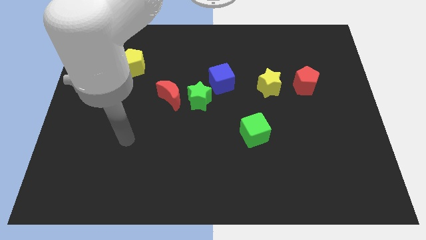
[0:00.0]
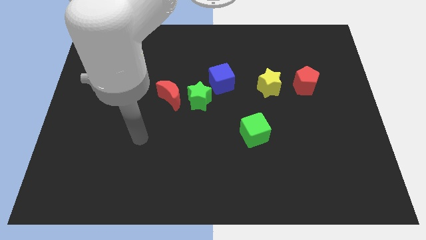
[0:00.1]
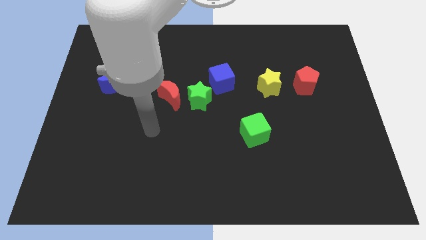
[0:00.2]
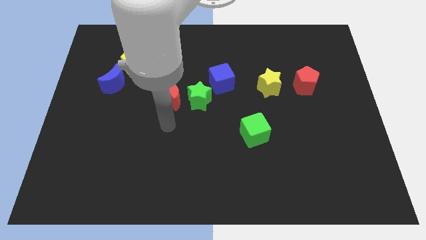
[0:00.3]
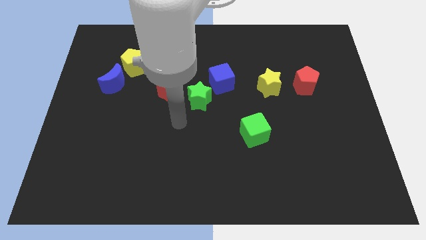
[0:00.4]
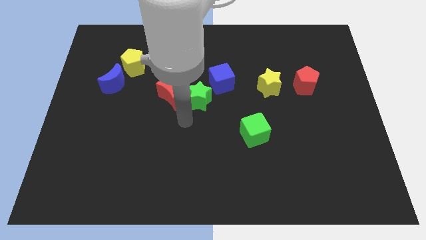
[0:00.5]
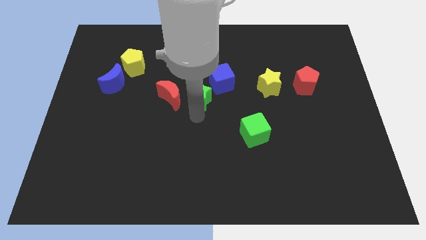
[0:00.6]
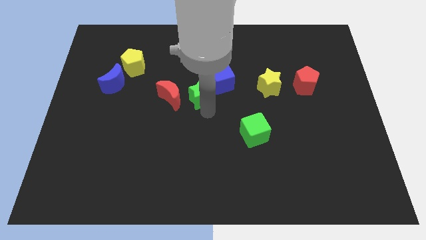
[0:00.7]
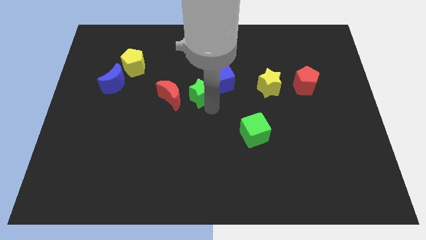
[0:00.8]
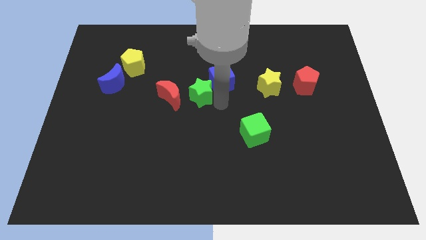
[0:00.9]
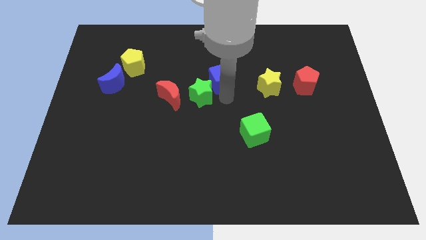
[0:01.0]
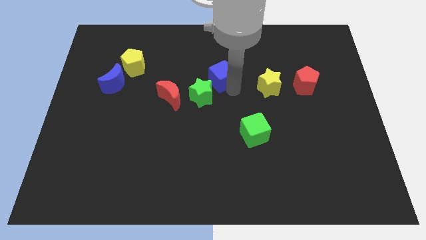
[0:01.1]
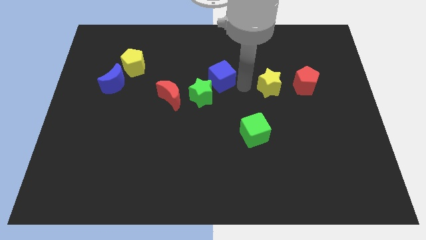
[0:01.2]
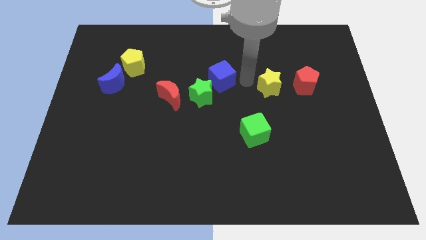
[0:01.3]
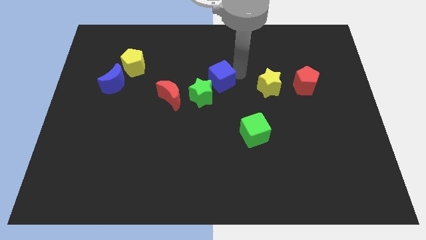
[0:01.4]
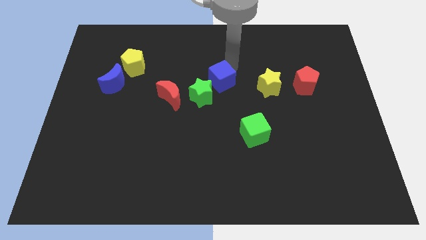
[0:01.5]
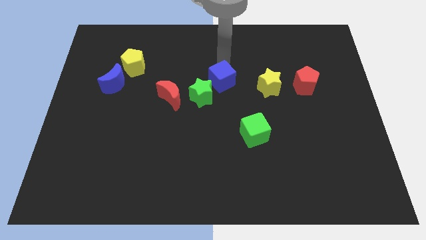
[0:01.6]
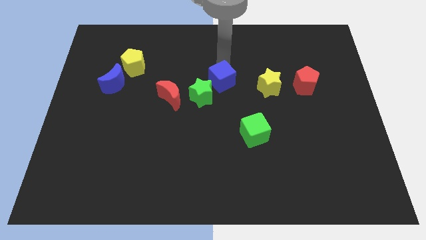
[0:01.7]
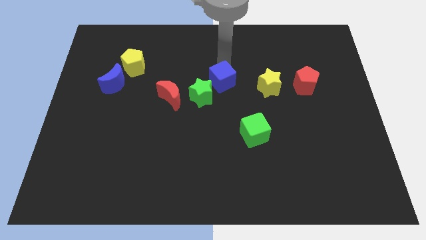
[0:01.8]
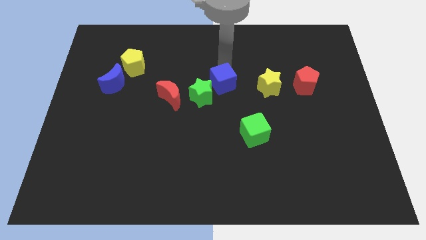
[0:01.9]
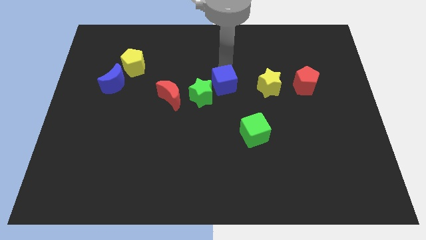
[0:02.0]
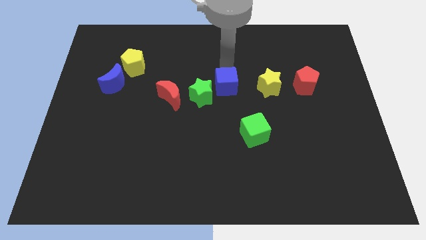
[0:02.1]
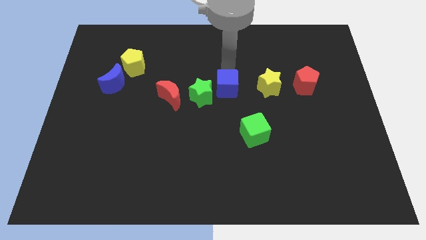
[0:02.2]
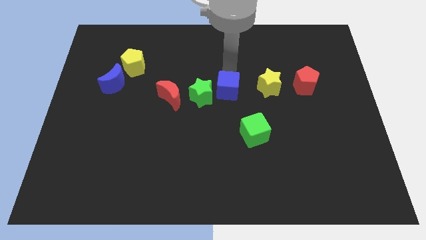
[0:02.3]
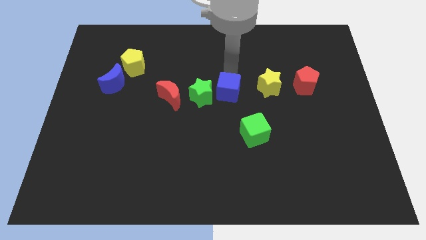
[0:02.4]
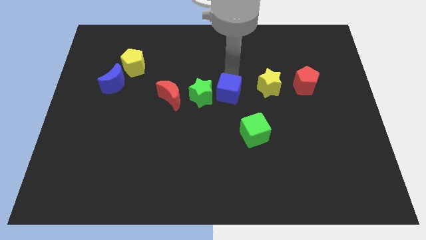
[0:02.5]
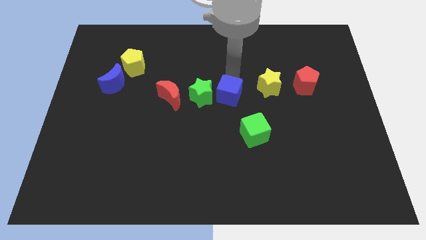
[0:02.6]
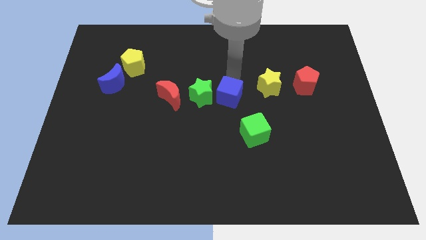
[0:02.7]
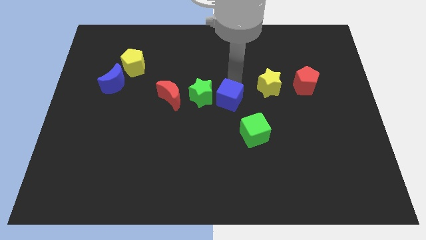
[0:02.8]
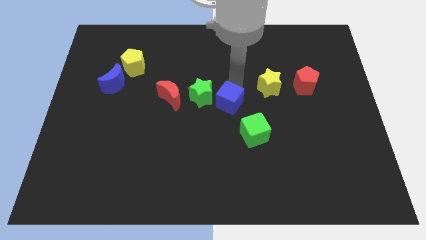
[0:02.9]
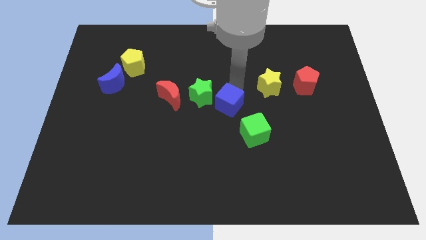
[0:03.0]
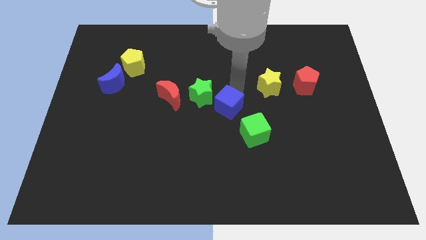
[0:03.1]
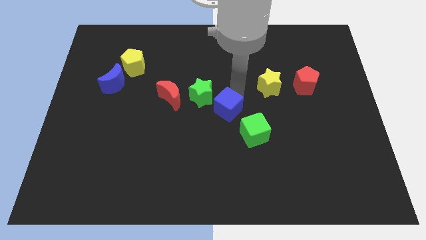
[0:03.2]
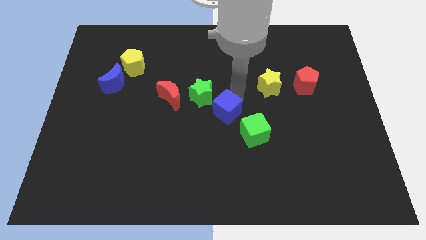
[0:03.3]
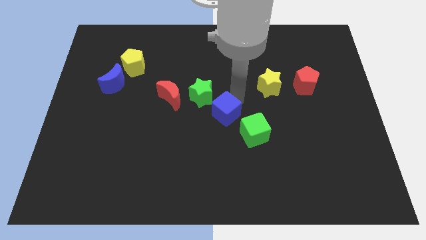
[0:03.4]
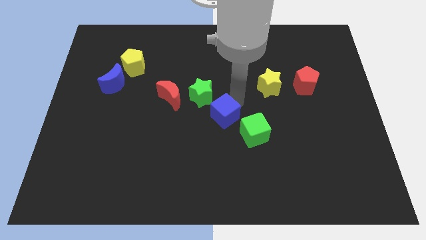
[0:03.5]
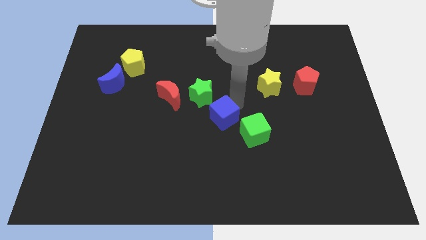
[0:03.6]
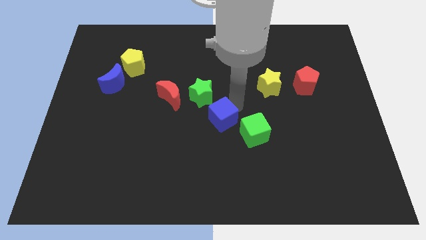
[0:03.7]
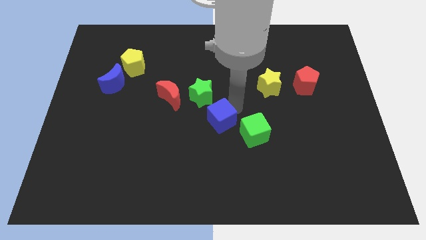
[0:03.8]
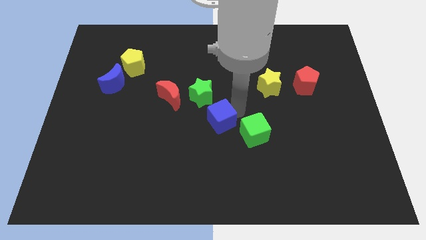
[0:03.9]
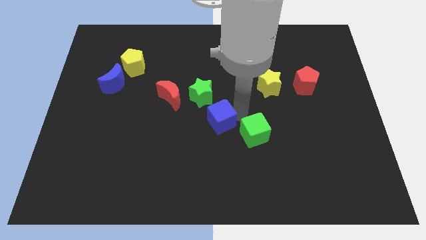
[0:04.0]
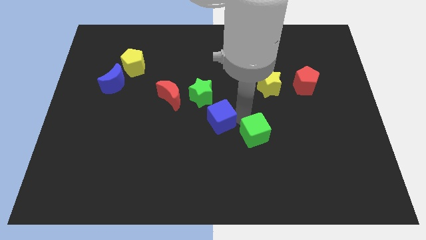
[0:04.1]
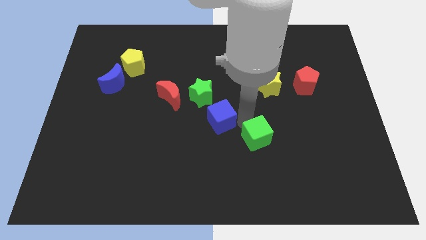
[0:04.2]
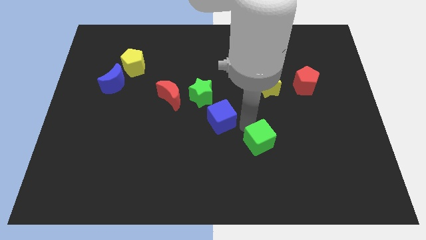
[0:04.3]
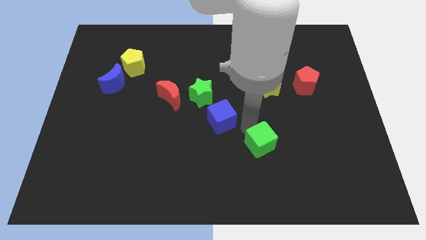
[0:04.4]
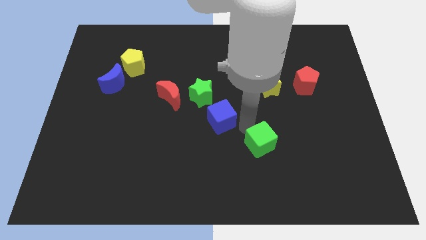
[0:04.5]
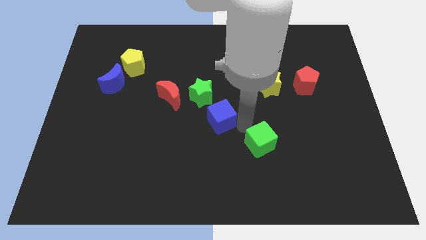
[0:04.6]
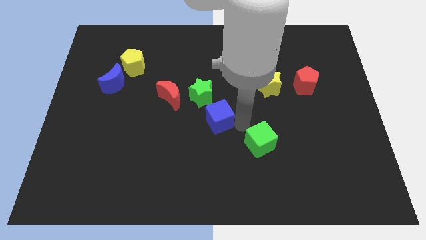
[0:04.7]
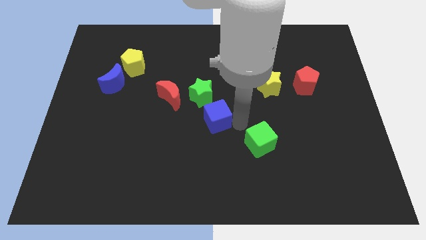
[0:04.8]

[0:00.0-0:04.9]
slightly push the blue cube downwards and to the left diagonally

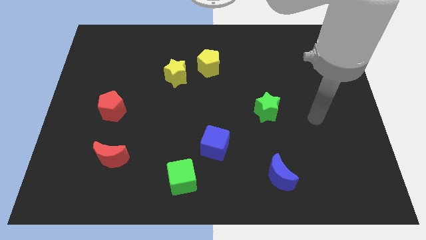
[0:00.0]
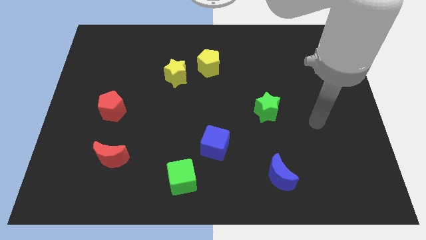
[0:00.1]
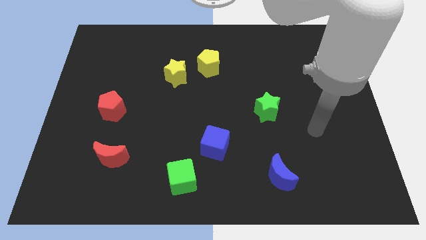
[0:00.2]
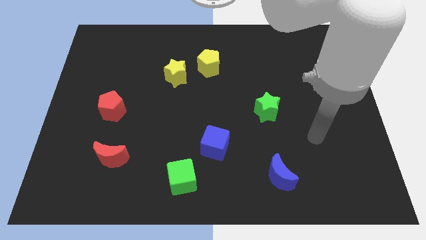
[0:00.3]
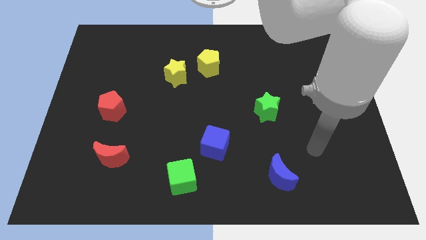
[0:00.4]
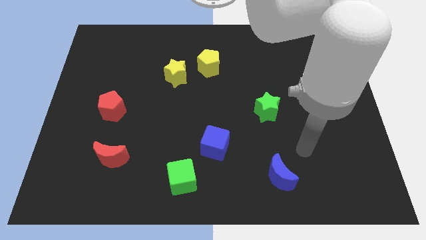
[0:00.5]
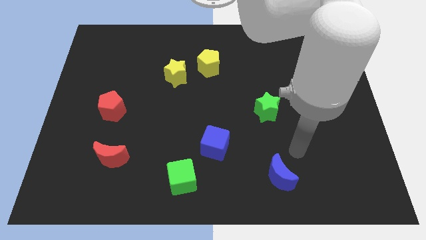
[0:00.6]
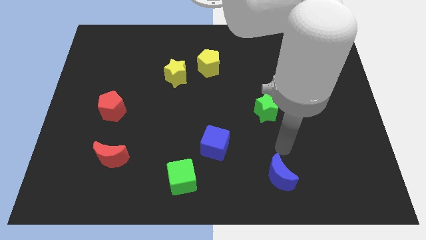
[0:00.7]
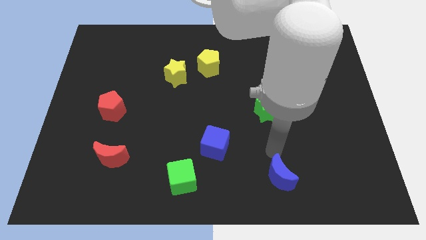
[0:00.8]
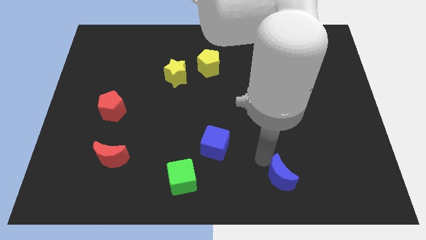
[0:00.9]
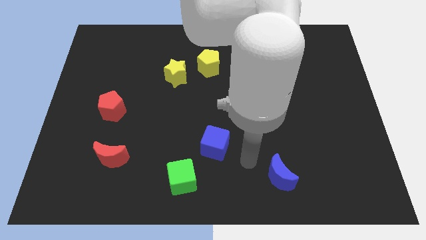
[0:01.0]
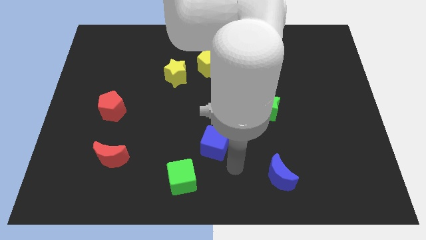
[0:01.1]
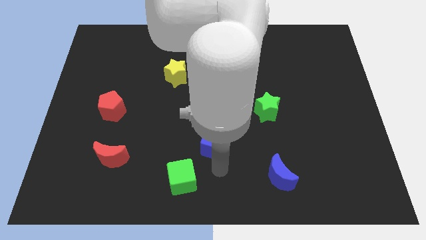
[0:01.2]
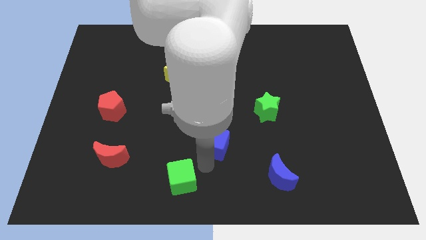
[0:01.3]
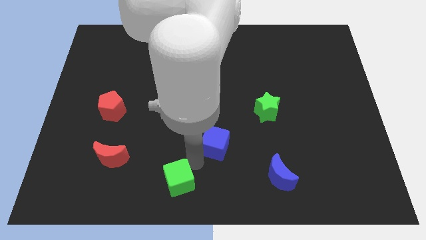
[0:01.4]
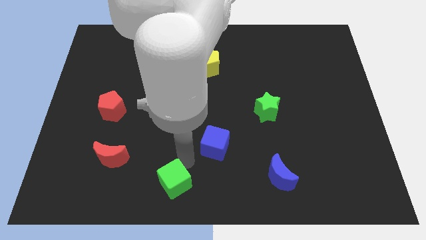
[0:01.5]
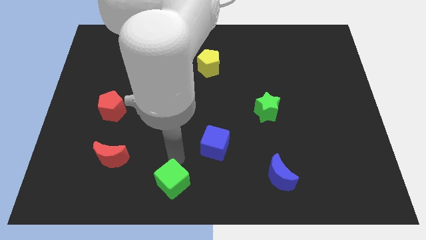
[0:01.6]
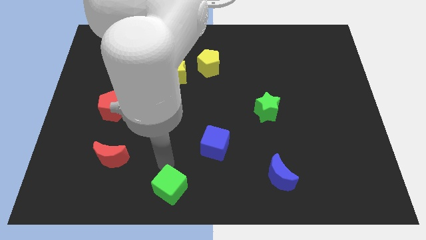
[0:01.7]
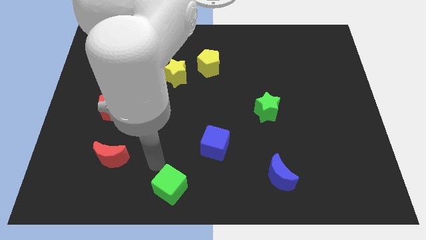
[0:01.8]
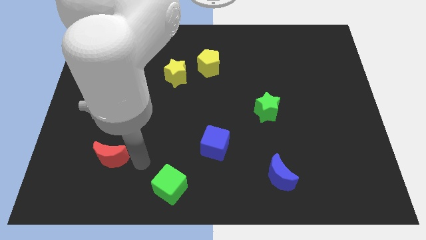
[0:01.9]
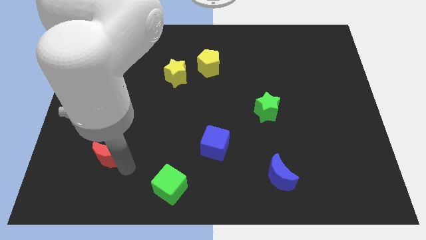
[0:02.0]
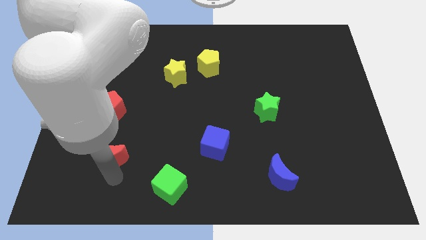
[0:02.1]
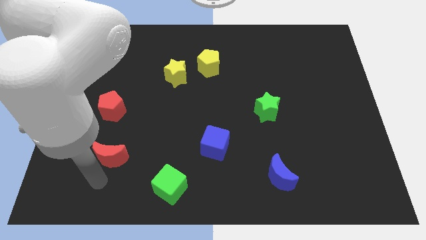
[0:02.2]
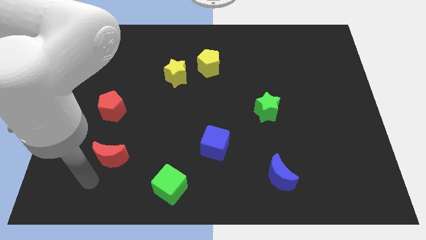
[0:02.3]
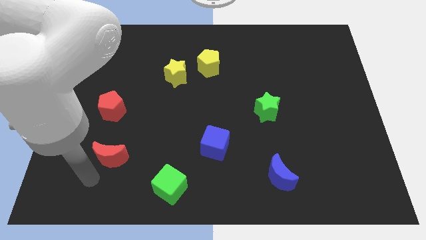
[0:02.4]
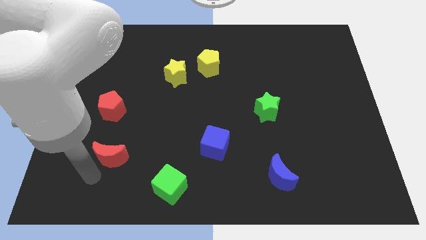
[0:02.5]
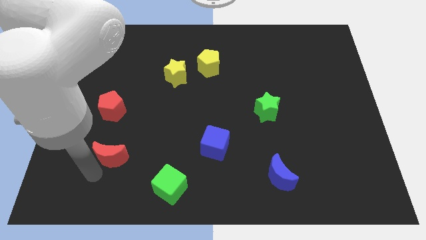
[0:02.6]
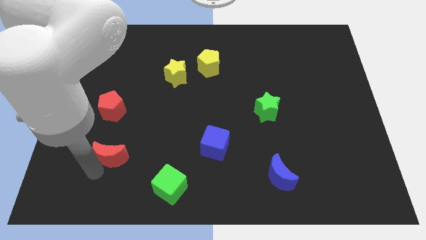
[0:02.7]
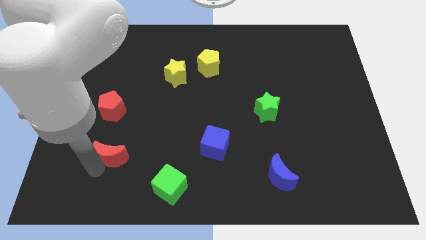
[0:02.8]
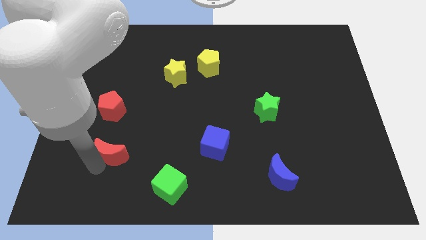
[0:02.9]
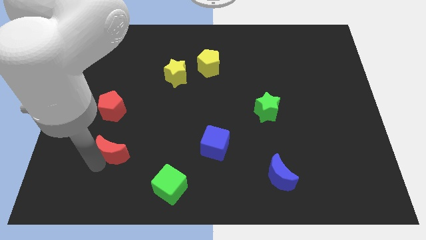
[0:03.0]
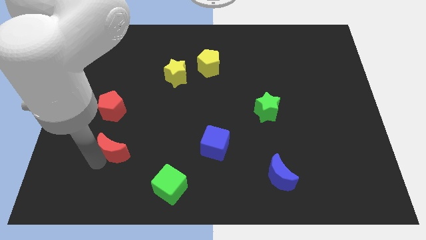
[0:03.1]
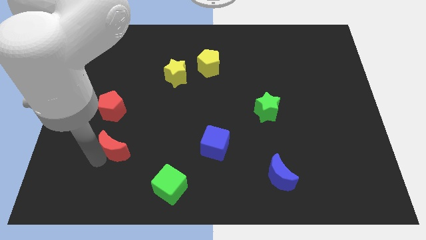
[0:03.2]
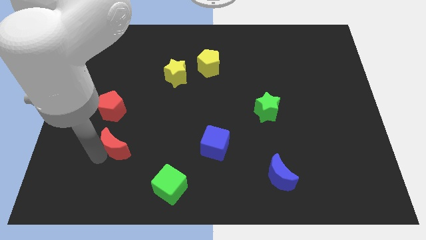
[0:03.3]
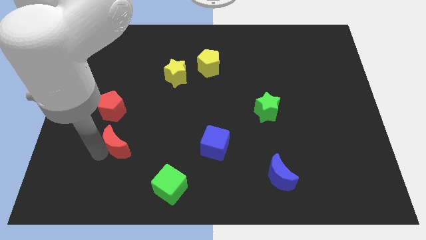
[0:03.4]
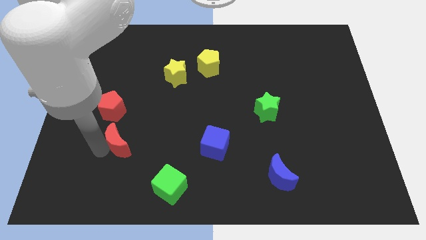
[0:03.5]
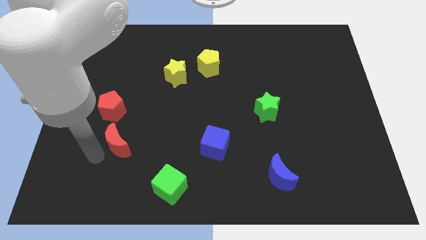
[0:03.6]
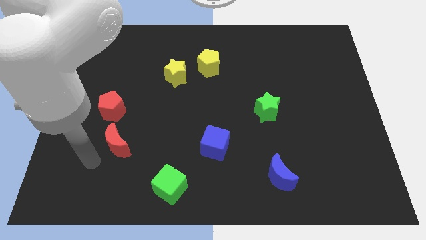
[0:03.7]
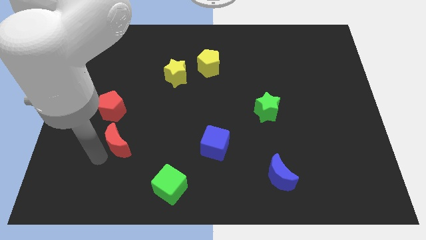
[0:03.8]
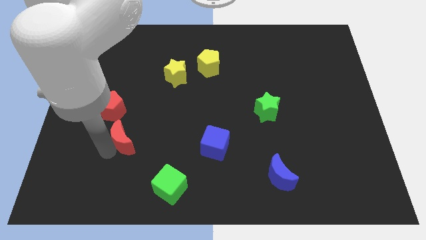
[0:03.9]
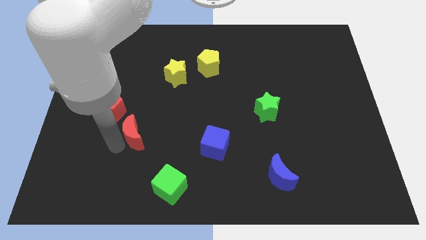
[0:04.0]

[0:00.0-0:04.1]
slightly slide the red moon up and then right
